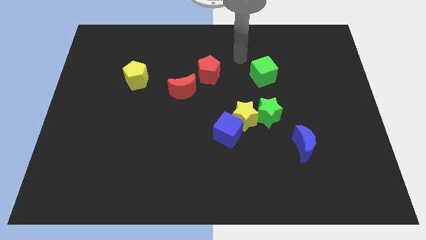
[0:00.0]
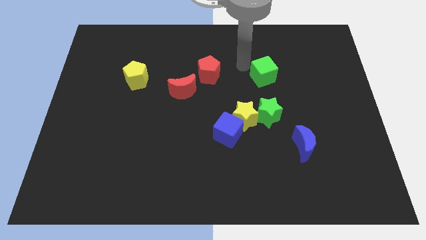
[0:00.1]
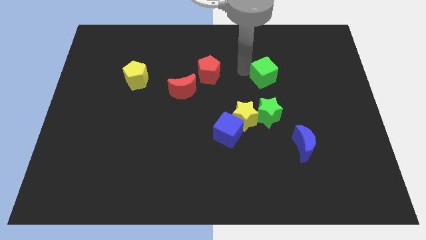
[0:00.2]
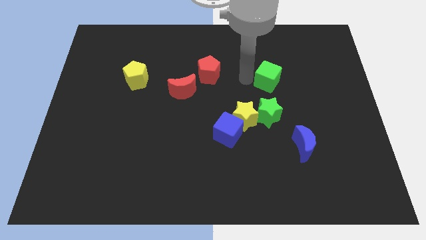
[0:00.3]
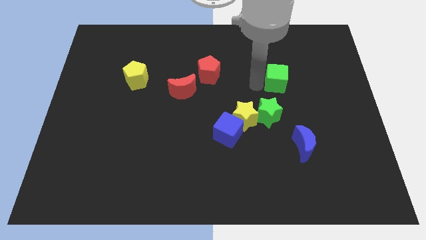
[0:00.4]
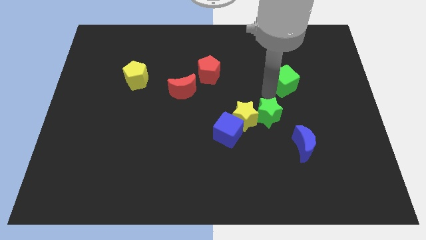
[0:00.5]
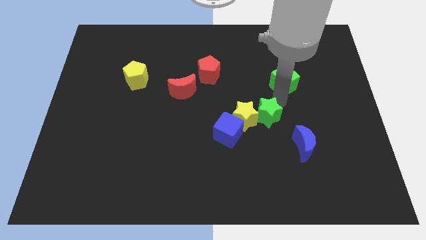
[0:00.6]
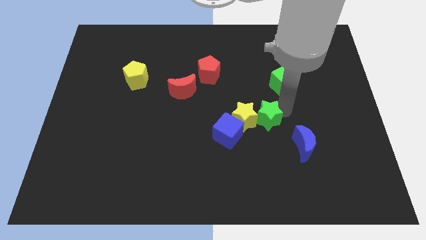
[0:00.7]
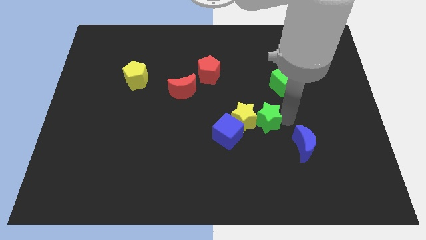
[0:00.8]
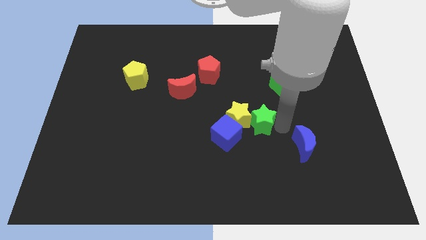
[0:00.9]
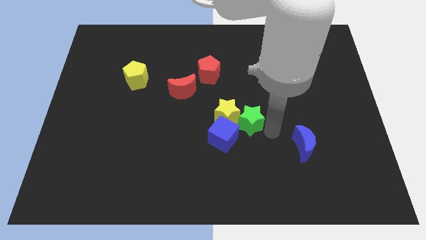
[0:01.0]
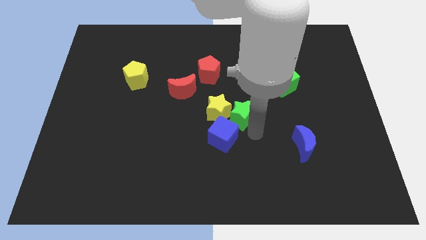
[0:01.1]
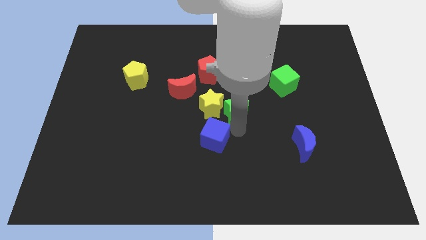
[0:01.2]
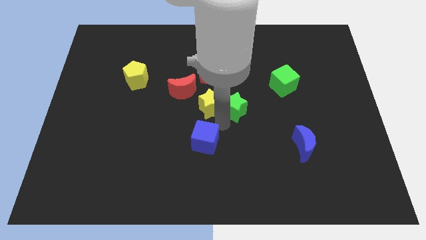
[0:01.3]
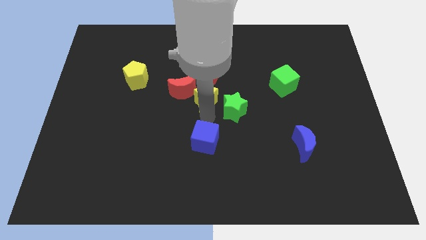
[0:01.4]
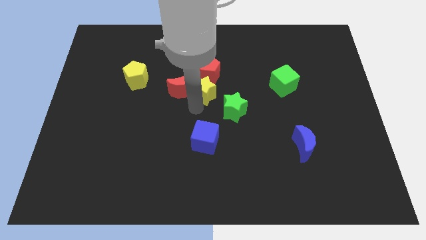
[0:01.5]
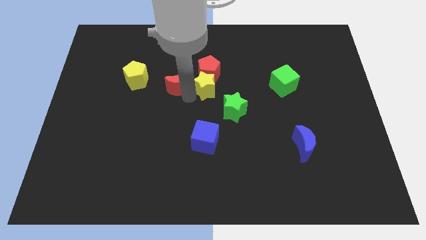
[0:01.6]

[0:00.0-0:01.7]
pull the yellow star apart from the blue cube and green star

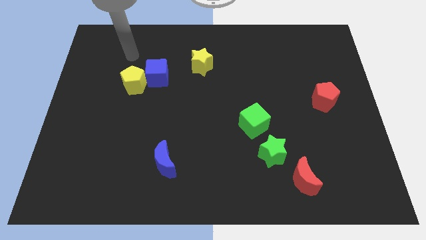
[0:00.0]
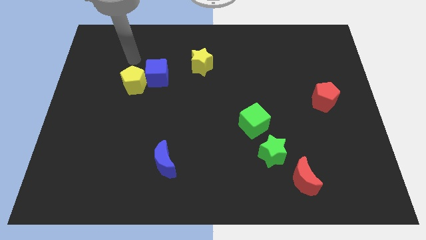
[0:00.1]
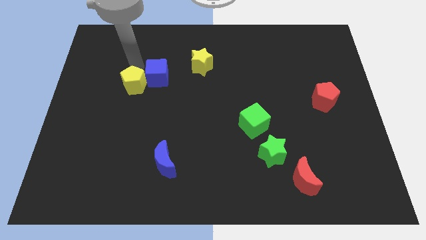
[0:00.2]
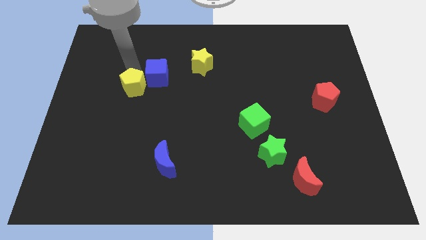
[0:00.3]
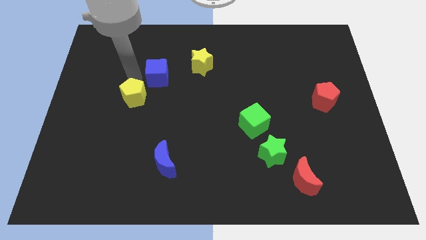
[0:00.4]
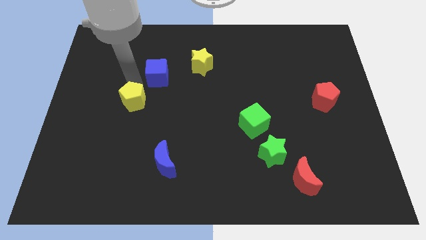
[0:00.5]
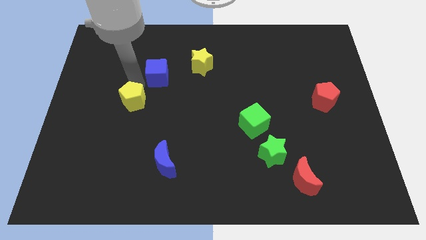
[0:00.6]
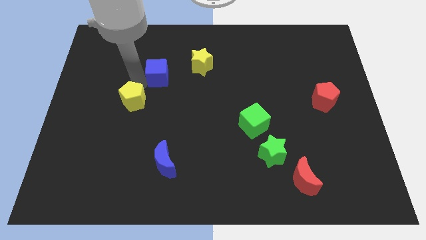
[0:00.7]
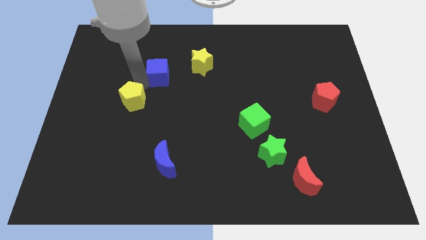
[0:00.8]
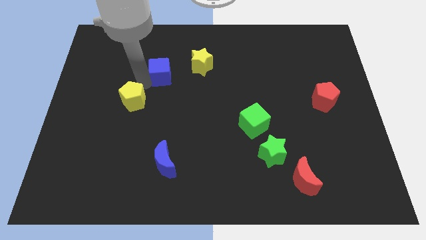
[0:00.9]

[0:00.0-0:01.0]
pull the blue cube apart from the yellow pentagon

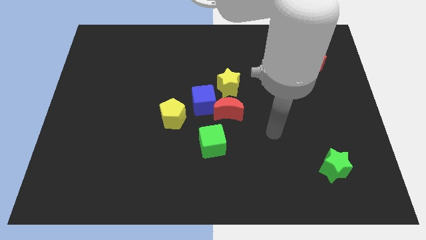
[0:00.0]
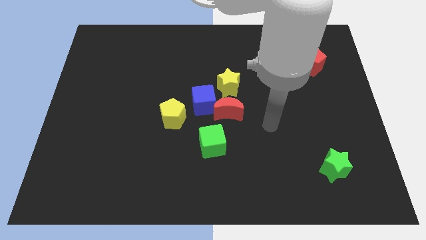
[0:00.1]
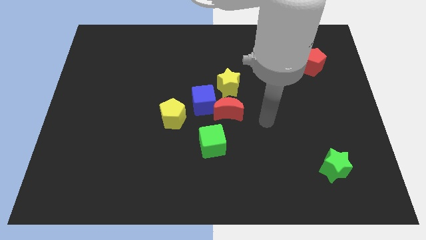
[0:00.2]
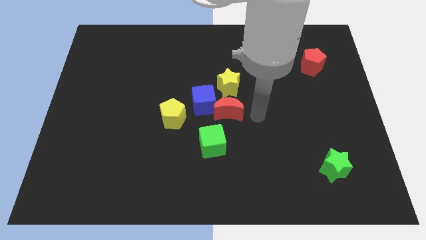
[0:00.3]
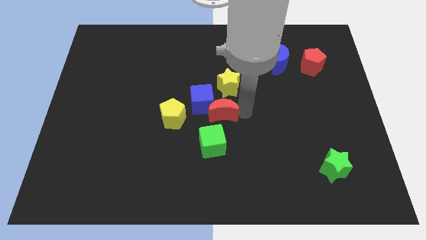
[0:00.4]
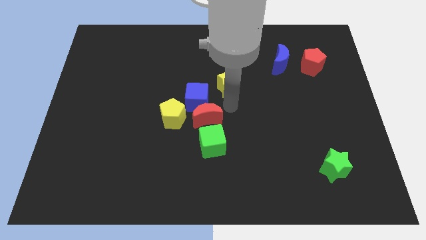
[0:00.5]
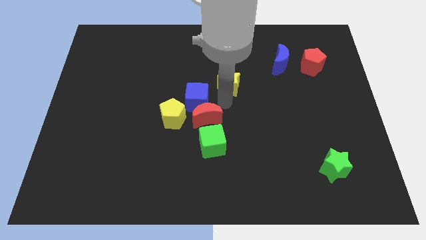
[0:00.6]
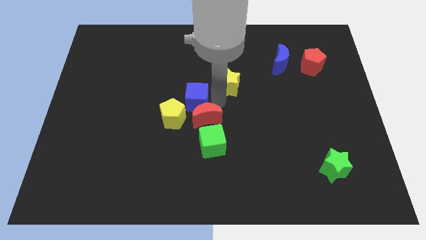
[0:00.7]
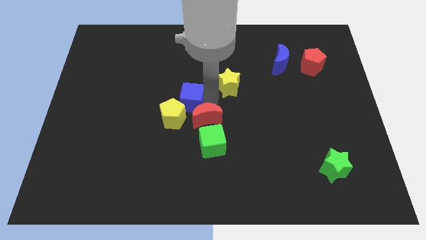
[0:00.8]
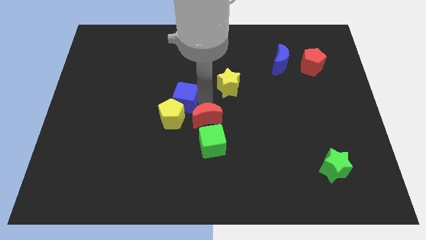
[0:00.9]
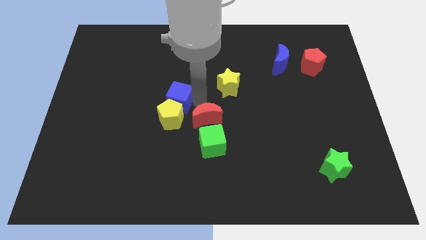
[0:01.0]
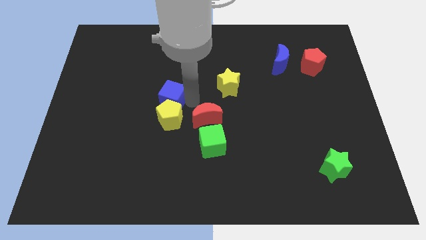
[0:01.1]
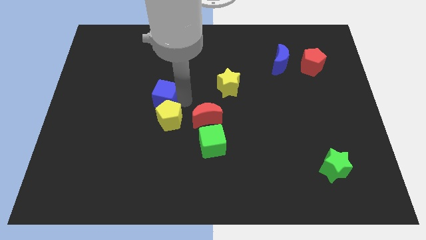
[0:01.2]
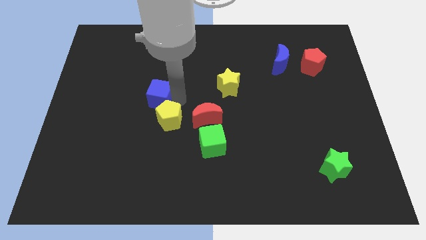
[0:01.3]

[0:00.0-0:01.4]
move the blue cube away from the group of blocks

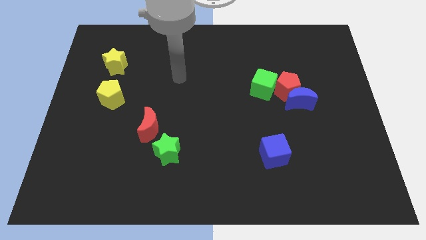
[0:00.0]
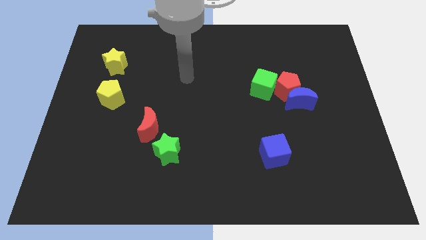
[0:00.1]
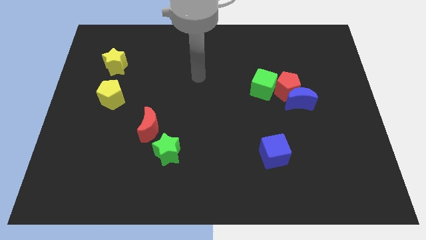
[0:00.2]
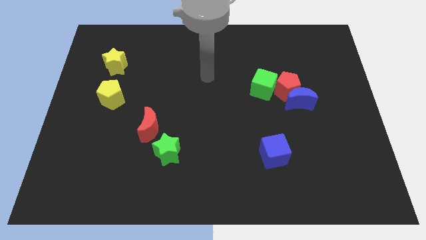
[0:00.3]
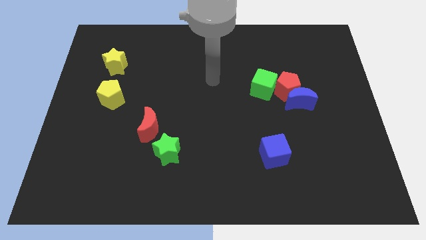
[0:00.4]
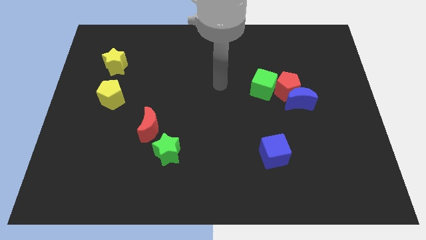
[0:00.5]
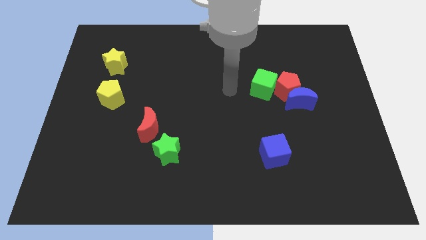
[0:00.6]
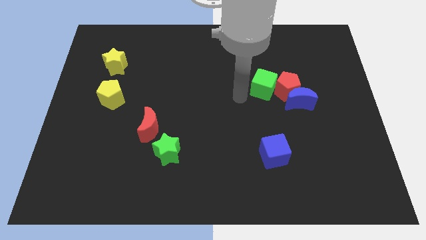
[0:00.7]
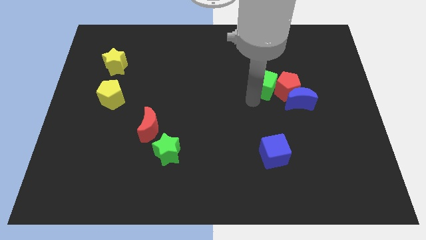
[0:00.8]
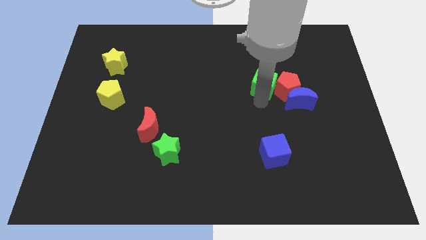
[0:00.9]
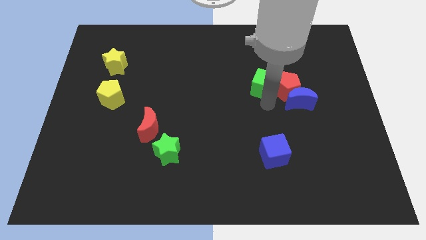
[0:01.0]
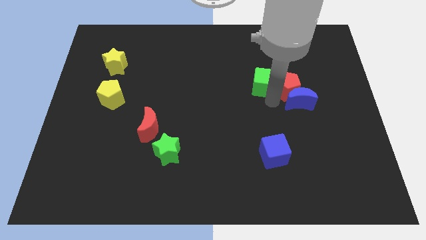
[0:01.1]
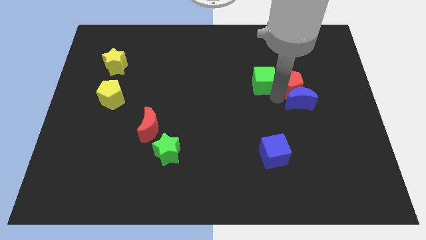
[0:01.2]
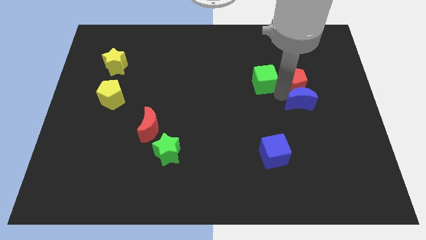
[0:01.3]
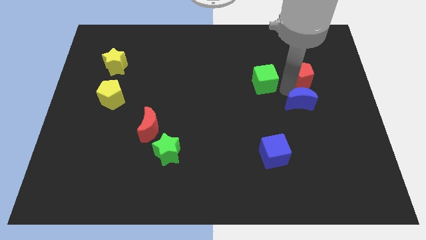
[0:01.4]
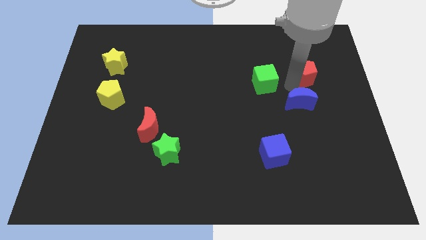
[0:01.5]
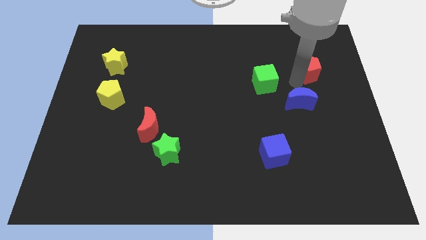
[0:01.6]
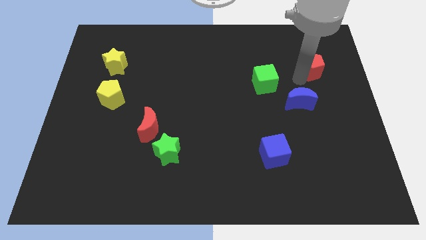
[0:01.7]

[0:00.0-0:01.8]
pull the red pentagon apart from the blue moon and green cube

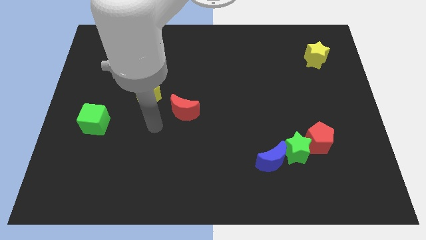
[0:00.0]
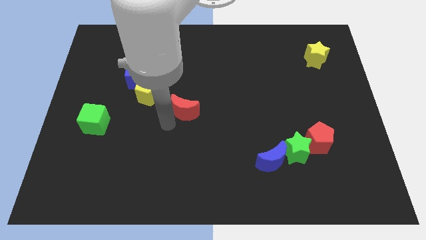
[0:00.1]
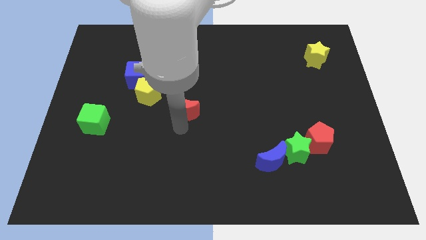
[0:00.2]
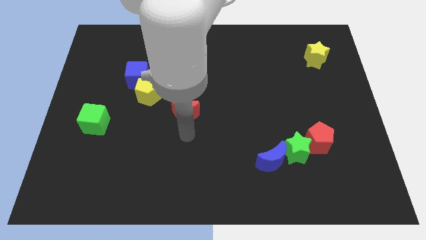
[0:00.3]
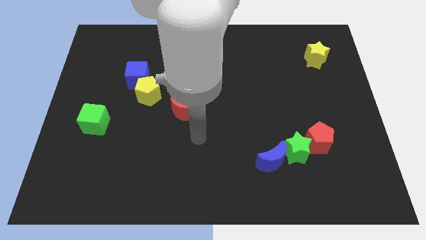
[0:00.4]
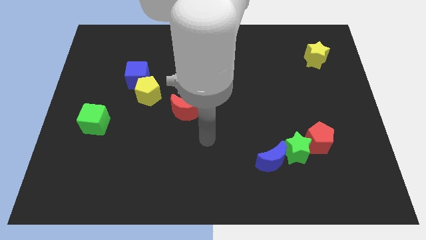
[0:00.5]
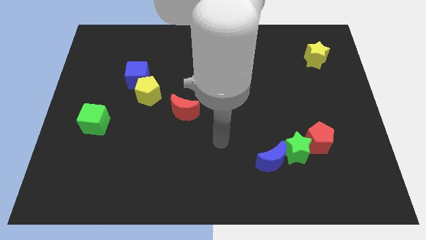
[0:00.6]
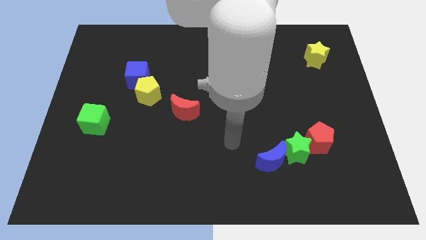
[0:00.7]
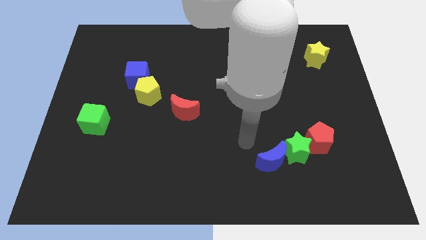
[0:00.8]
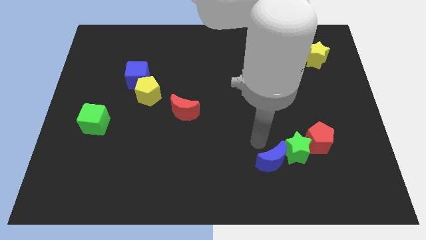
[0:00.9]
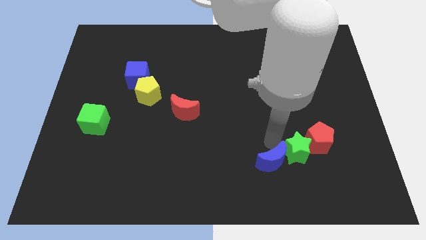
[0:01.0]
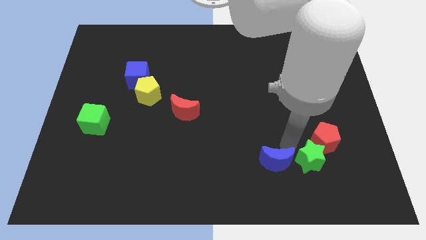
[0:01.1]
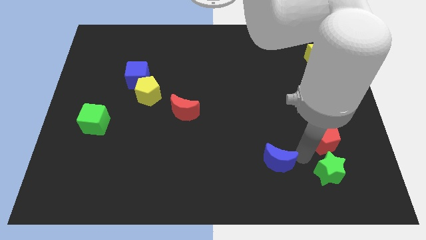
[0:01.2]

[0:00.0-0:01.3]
separate the blue moon from the green star

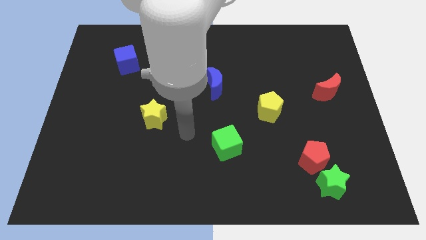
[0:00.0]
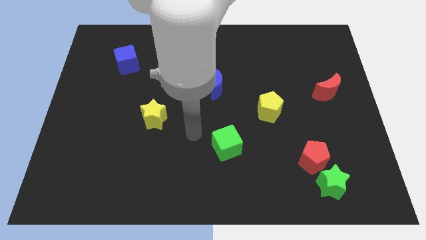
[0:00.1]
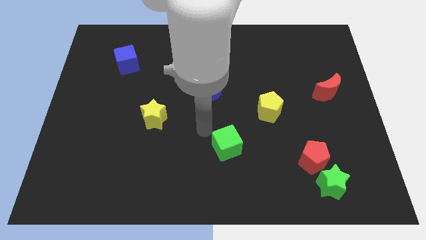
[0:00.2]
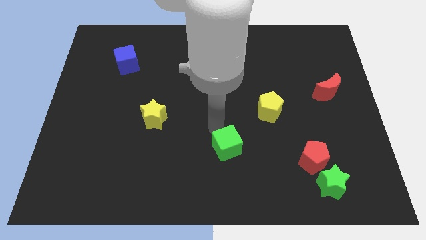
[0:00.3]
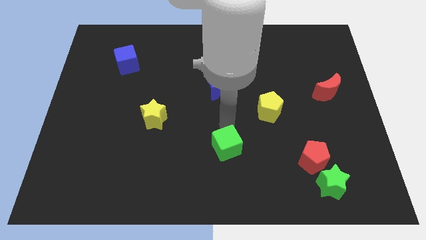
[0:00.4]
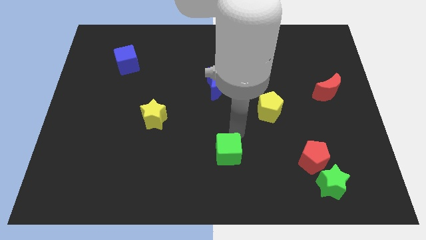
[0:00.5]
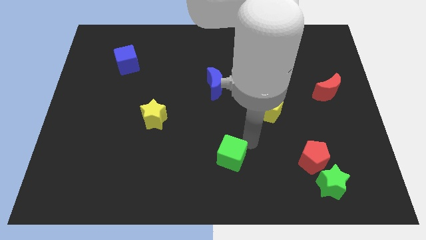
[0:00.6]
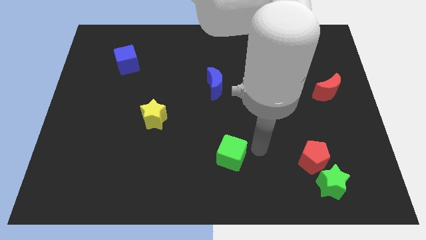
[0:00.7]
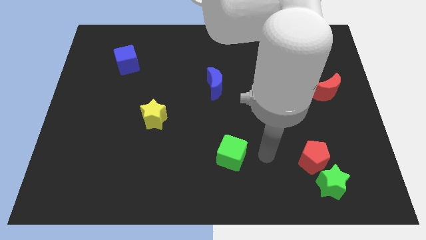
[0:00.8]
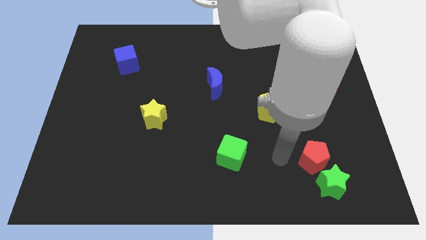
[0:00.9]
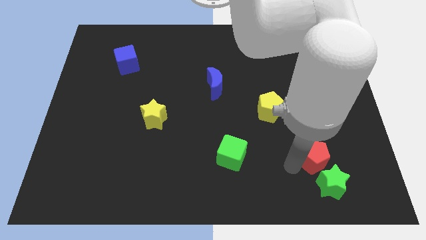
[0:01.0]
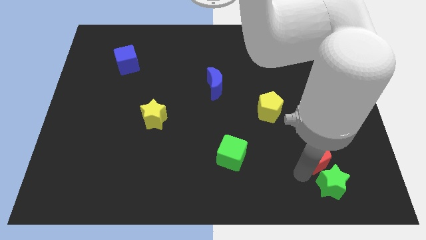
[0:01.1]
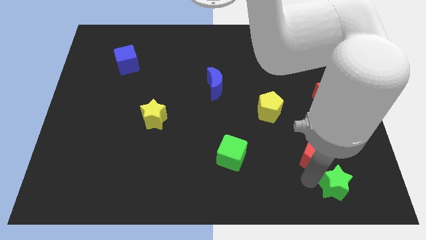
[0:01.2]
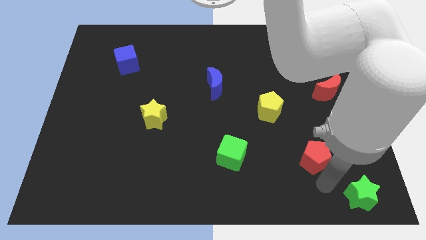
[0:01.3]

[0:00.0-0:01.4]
separate the red pentagon from the green star

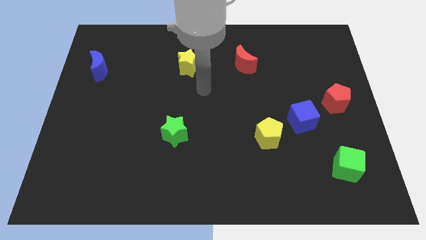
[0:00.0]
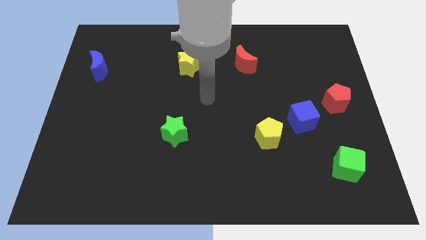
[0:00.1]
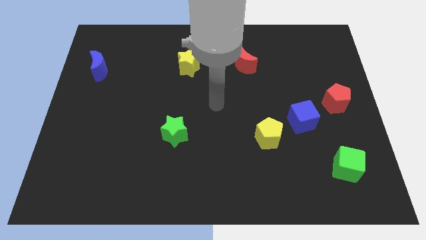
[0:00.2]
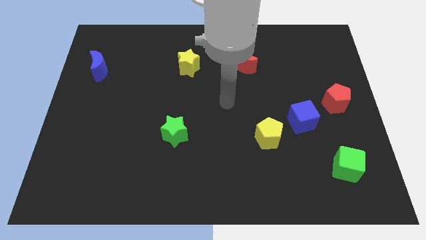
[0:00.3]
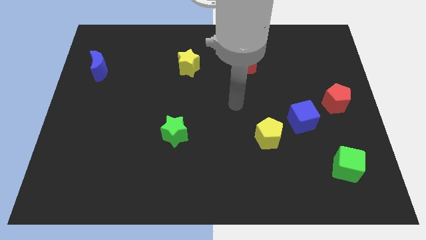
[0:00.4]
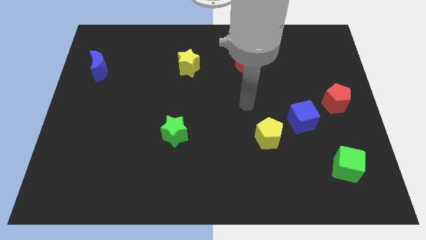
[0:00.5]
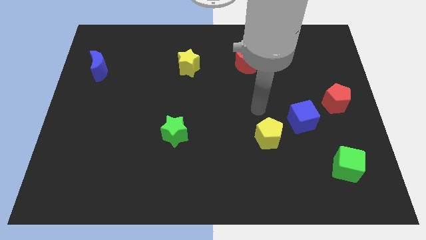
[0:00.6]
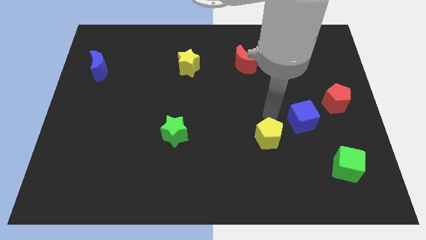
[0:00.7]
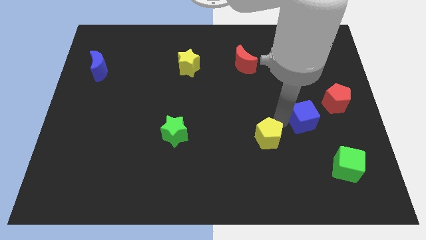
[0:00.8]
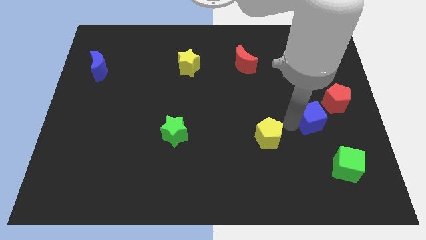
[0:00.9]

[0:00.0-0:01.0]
move the yellow pentagon away from the blue cube
